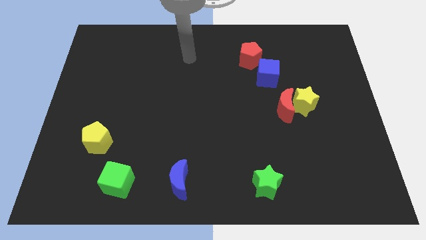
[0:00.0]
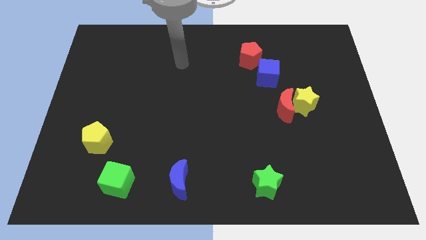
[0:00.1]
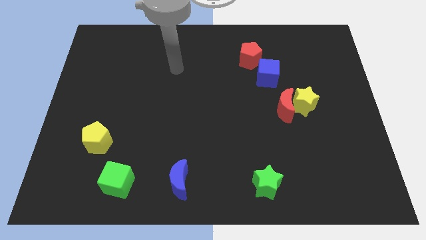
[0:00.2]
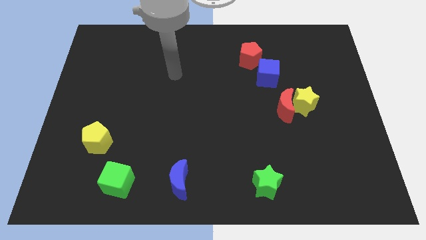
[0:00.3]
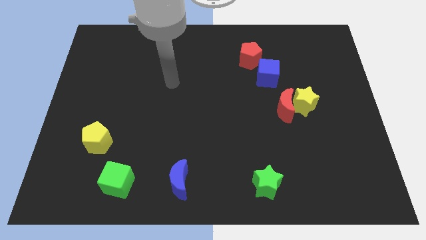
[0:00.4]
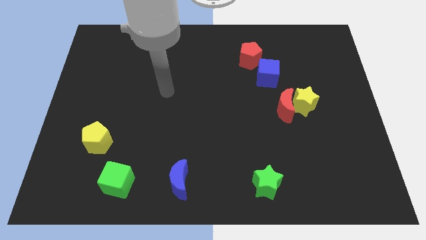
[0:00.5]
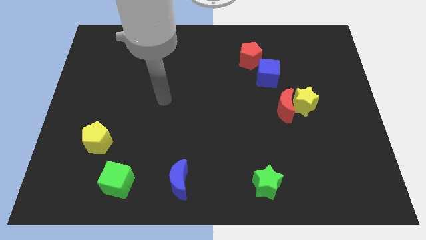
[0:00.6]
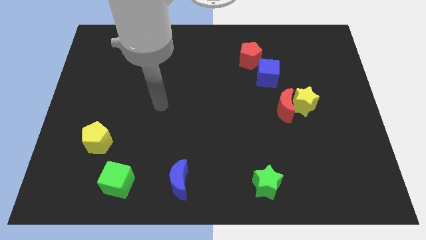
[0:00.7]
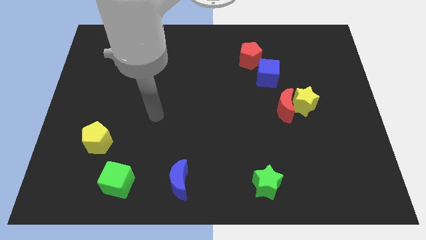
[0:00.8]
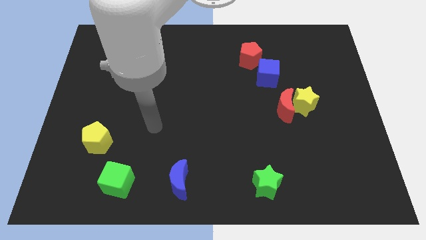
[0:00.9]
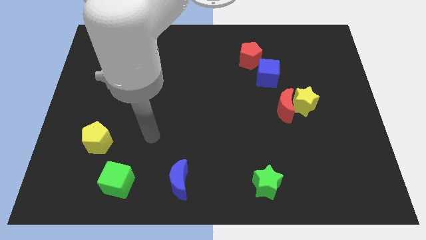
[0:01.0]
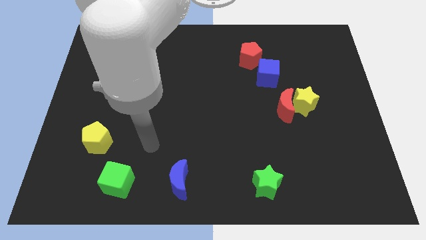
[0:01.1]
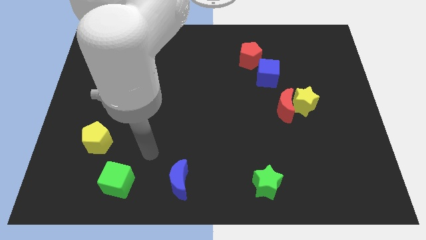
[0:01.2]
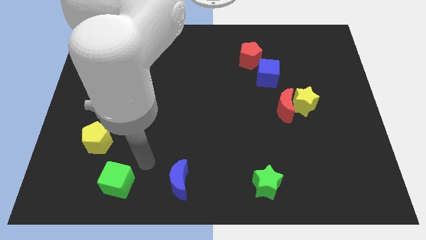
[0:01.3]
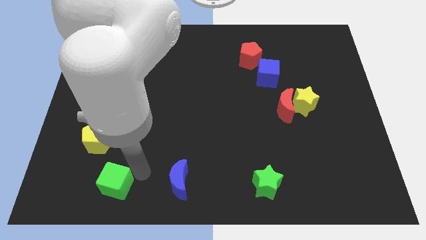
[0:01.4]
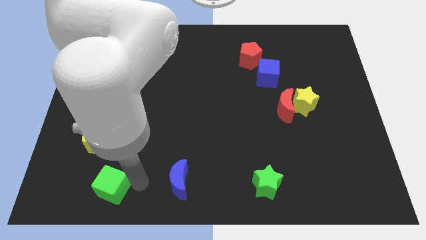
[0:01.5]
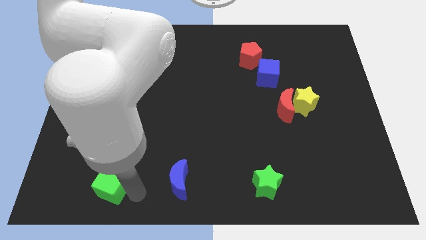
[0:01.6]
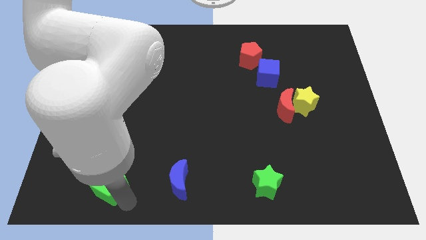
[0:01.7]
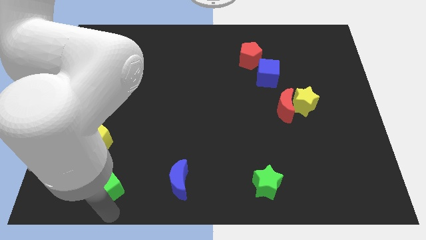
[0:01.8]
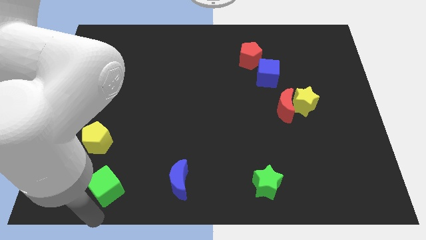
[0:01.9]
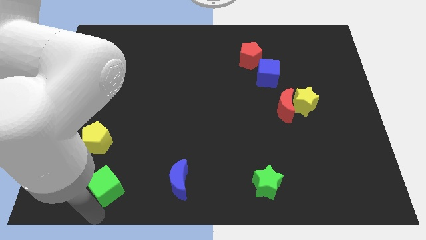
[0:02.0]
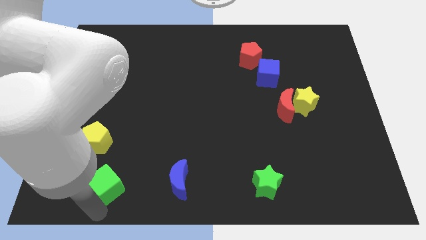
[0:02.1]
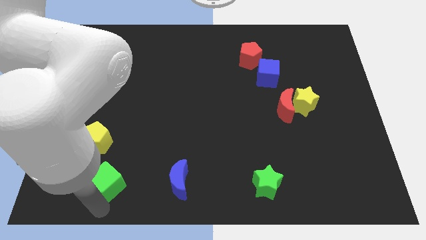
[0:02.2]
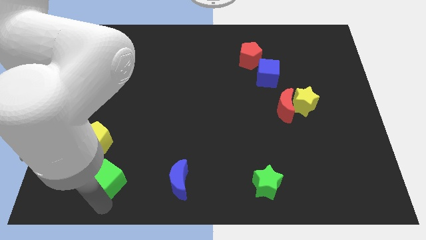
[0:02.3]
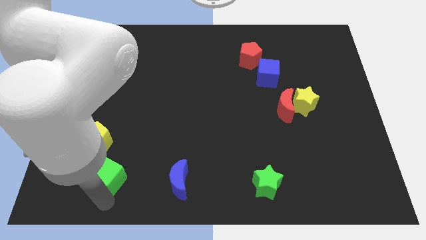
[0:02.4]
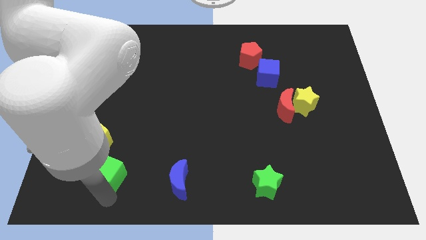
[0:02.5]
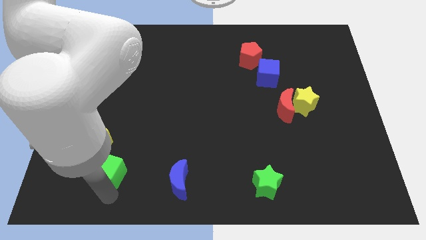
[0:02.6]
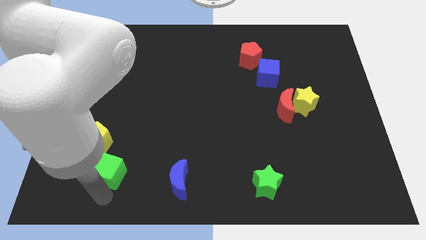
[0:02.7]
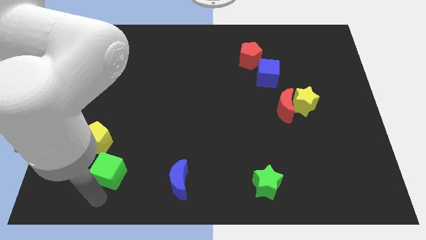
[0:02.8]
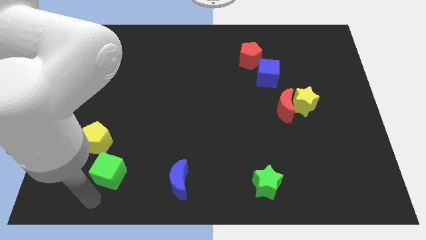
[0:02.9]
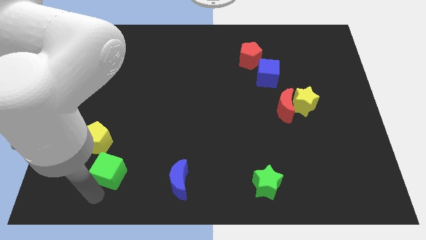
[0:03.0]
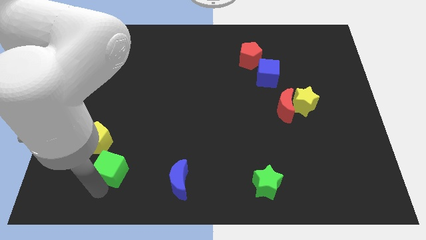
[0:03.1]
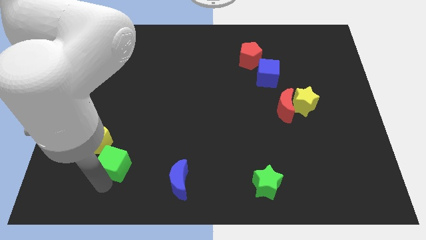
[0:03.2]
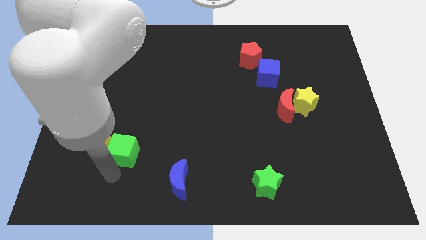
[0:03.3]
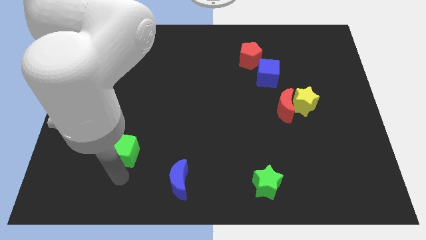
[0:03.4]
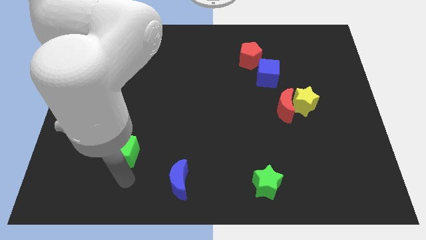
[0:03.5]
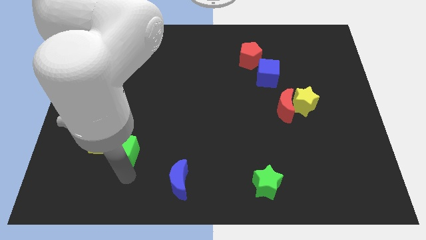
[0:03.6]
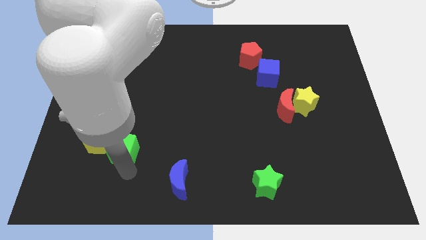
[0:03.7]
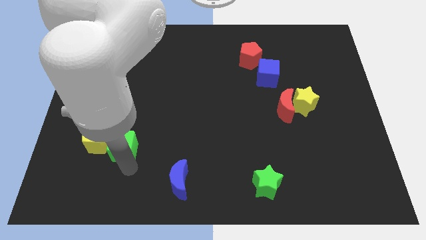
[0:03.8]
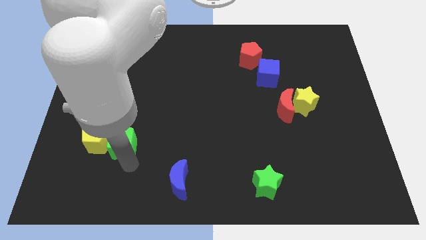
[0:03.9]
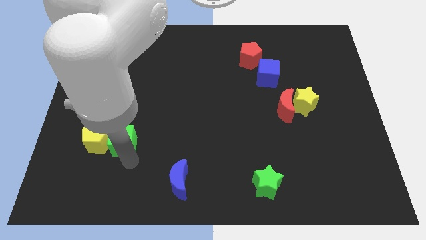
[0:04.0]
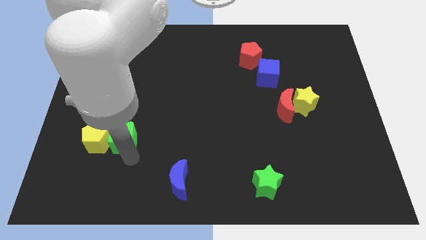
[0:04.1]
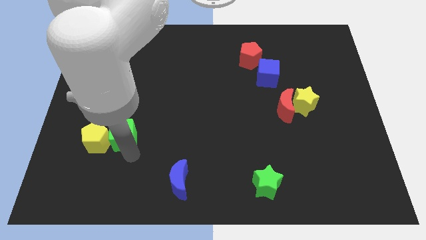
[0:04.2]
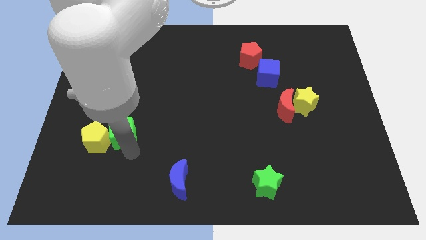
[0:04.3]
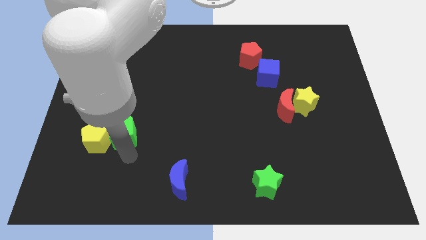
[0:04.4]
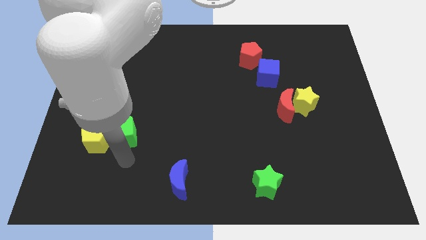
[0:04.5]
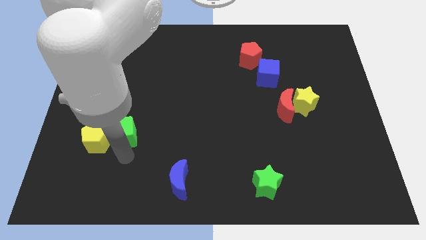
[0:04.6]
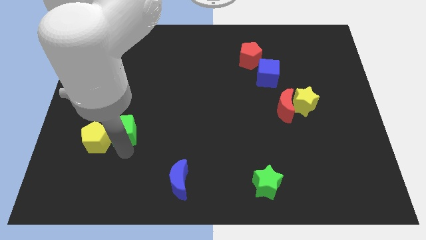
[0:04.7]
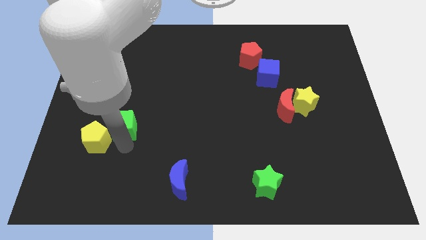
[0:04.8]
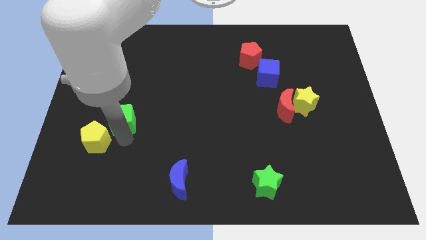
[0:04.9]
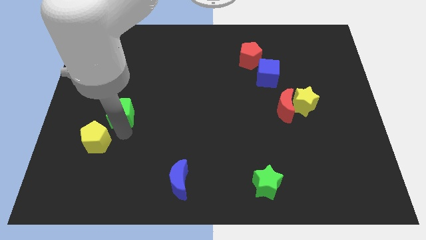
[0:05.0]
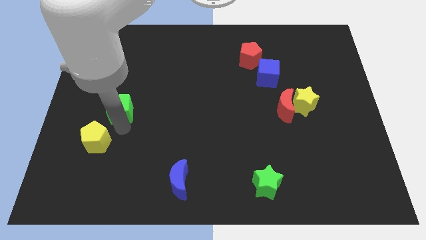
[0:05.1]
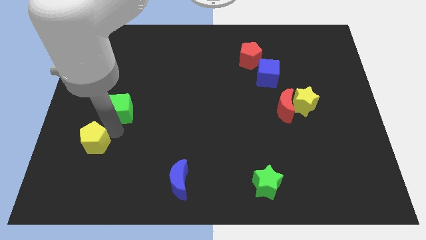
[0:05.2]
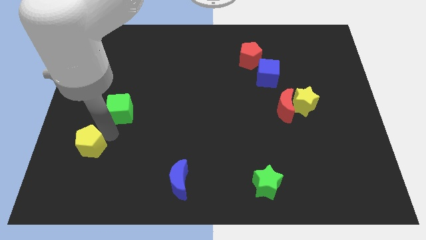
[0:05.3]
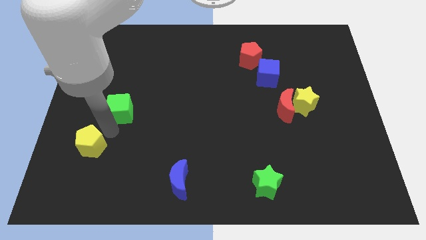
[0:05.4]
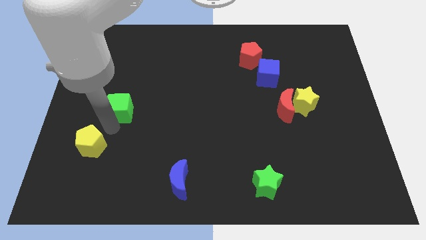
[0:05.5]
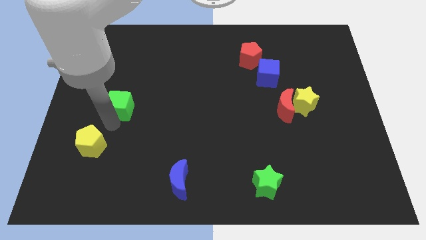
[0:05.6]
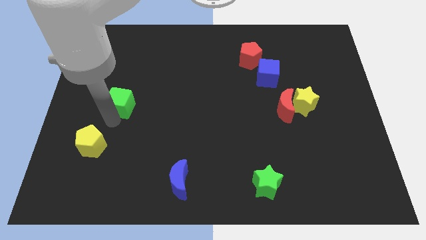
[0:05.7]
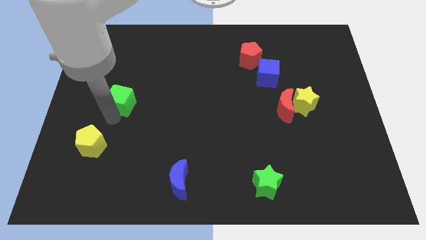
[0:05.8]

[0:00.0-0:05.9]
move the green cube up

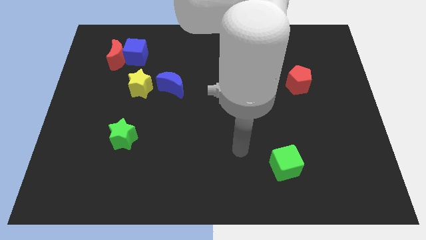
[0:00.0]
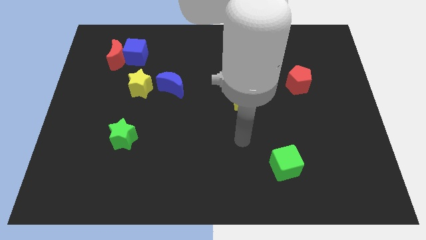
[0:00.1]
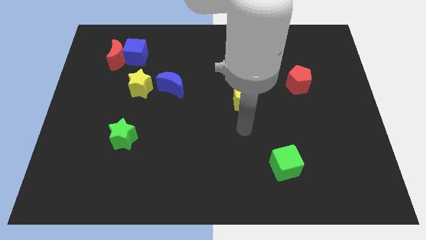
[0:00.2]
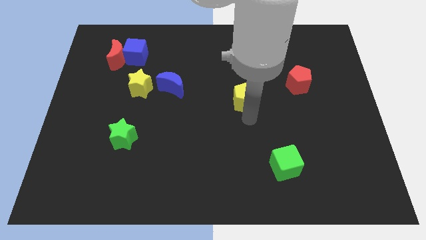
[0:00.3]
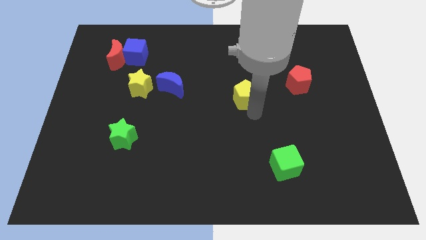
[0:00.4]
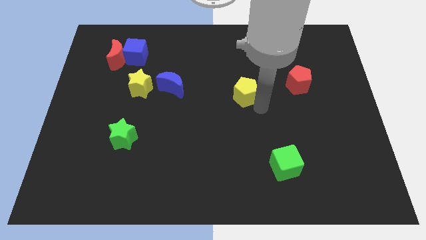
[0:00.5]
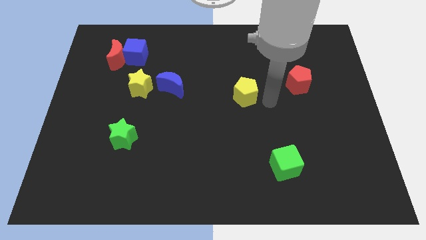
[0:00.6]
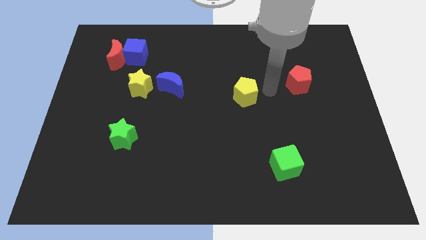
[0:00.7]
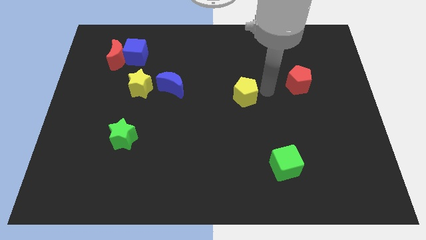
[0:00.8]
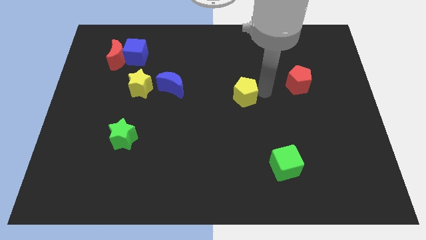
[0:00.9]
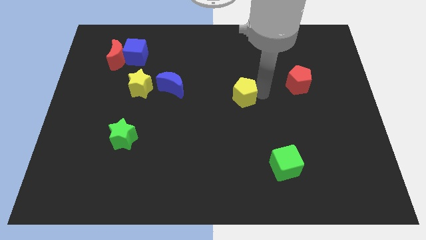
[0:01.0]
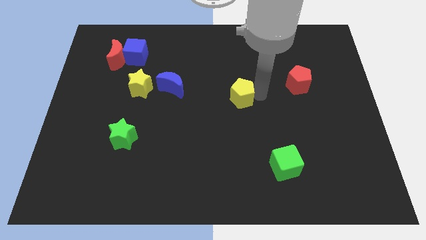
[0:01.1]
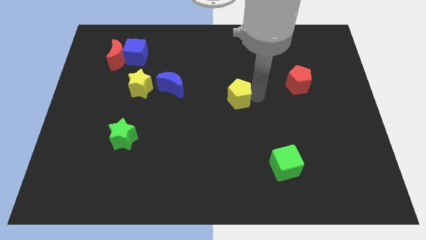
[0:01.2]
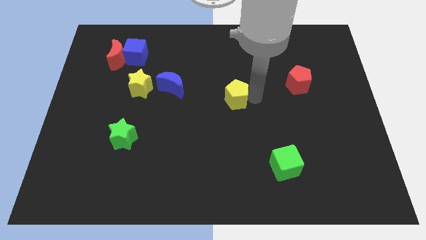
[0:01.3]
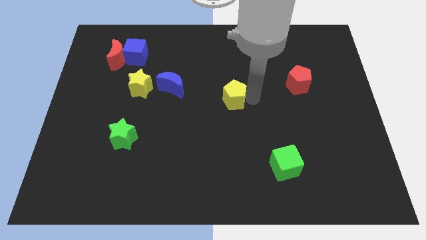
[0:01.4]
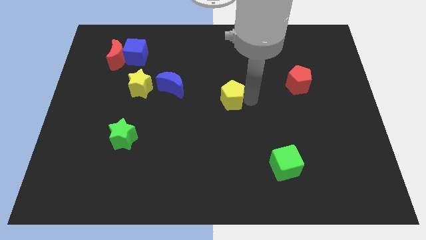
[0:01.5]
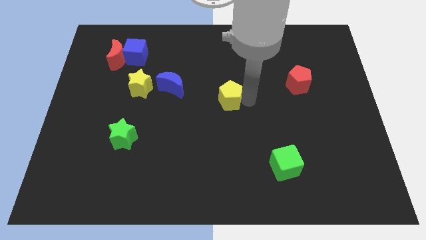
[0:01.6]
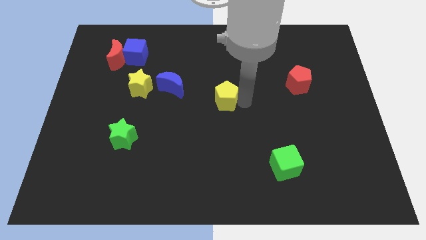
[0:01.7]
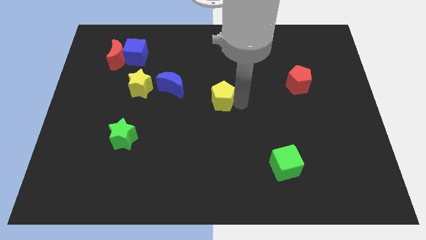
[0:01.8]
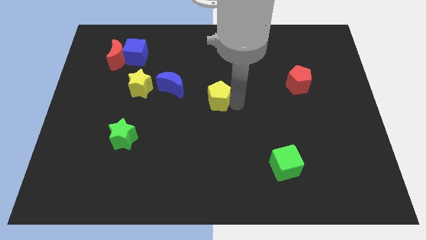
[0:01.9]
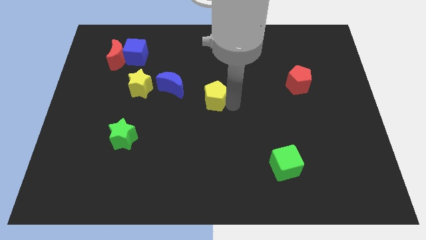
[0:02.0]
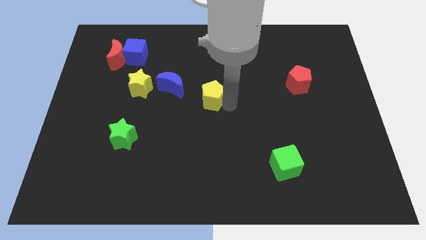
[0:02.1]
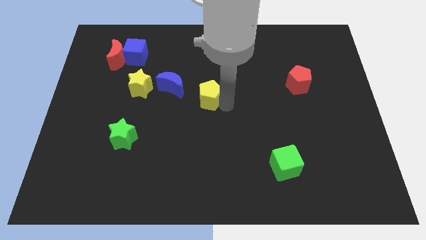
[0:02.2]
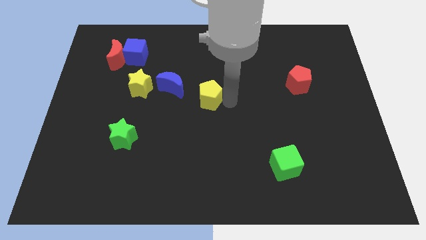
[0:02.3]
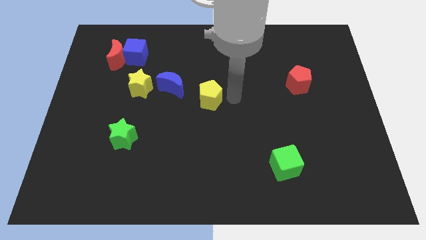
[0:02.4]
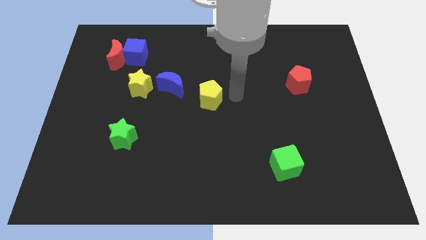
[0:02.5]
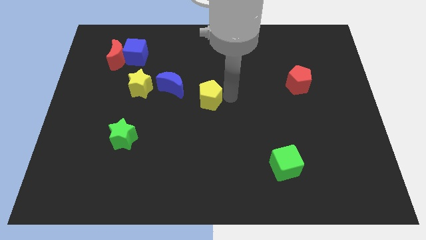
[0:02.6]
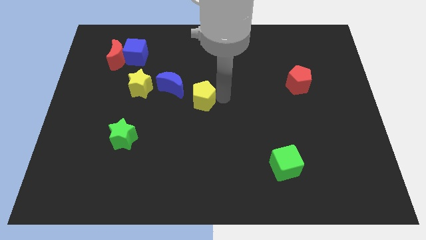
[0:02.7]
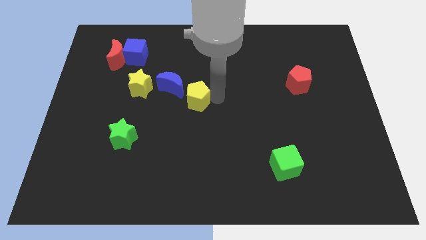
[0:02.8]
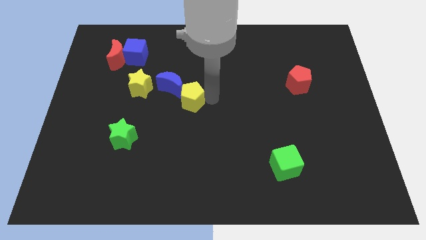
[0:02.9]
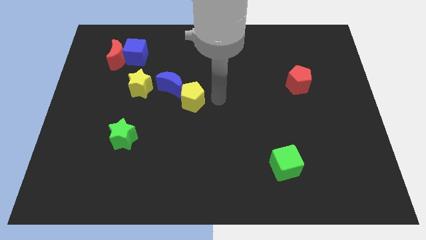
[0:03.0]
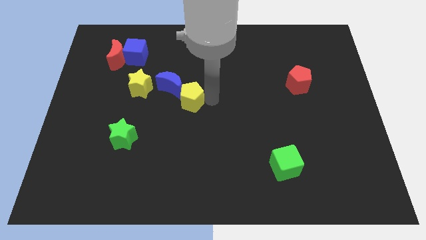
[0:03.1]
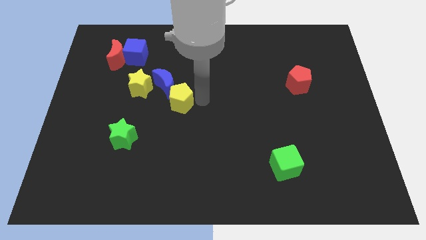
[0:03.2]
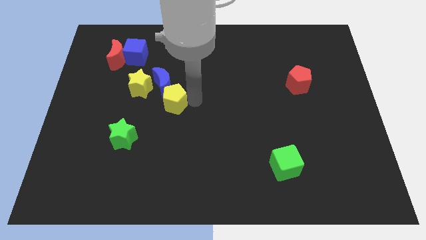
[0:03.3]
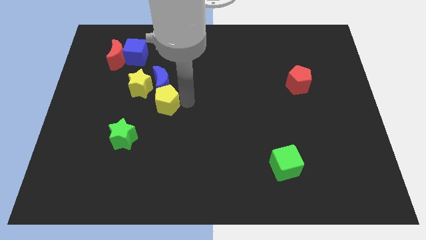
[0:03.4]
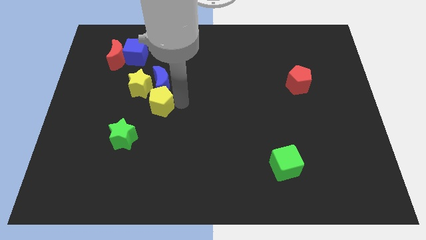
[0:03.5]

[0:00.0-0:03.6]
move the yellow pentagon to the left
